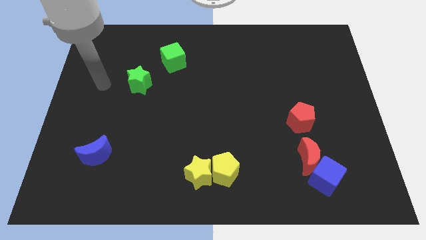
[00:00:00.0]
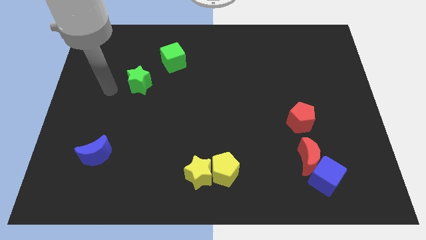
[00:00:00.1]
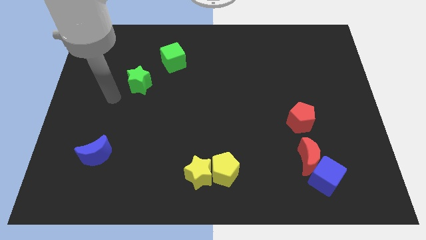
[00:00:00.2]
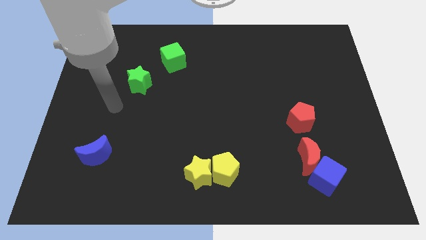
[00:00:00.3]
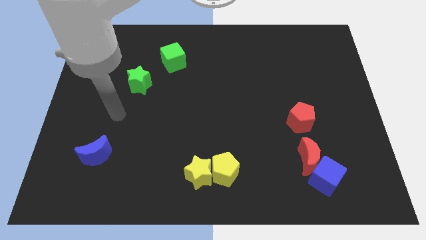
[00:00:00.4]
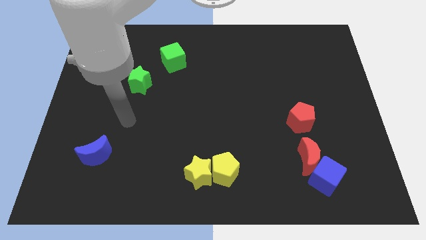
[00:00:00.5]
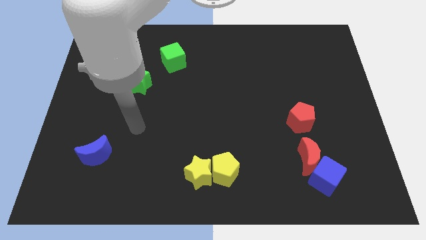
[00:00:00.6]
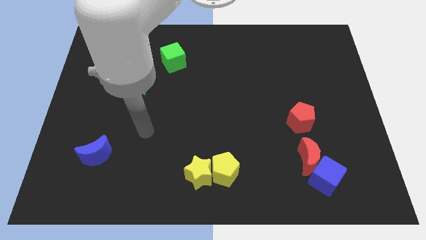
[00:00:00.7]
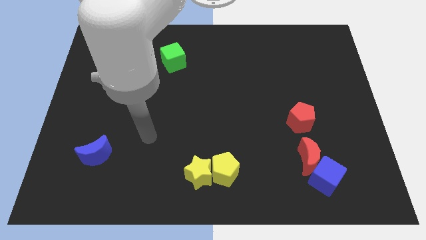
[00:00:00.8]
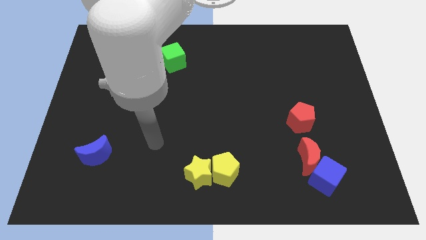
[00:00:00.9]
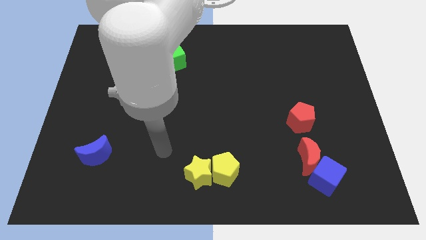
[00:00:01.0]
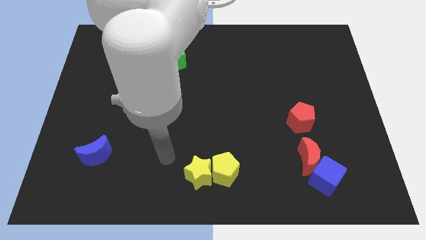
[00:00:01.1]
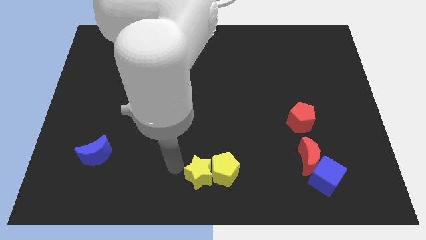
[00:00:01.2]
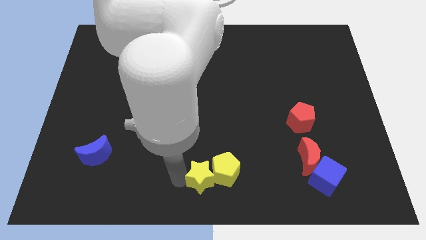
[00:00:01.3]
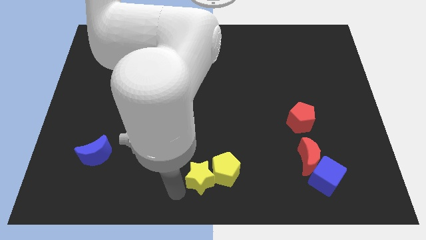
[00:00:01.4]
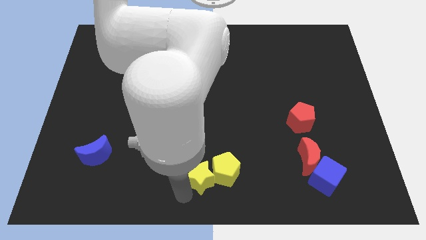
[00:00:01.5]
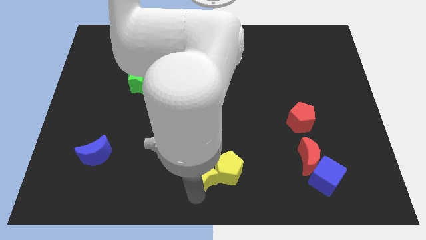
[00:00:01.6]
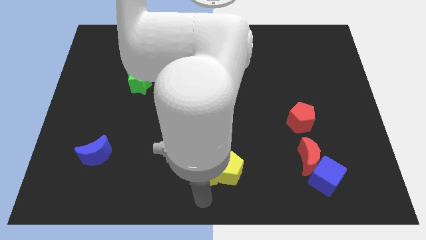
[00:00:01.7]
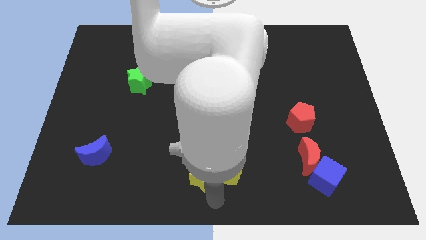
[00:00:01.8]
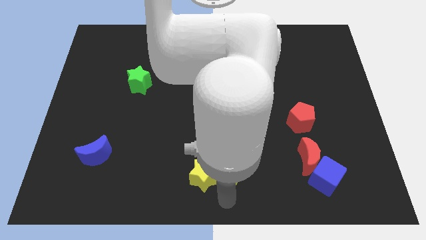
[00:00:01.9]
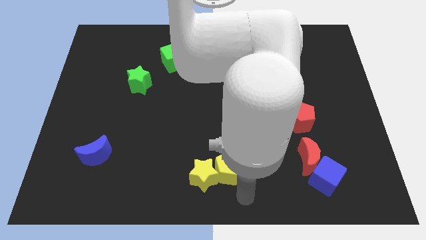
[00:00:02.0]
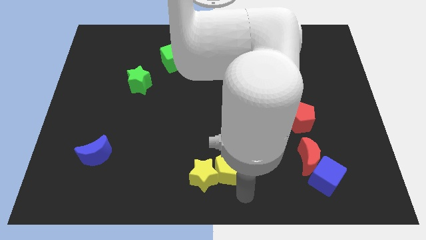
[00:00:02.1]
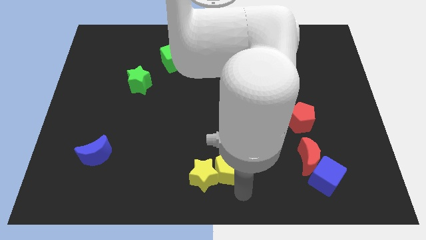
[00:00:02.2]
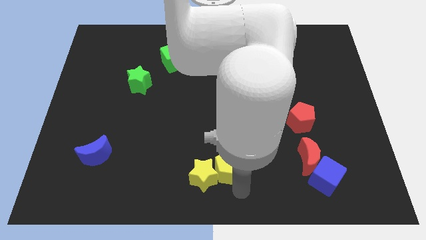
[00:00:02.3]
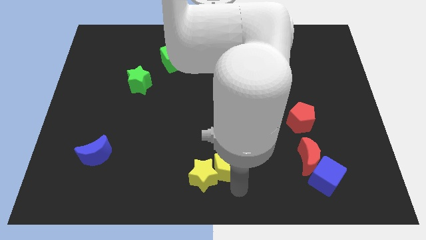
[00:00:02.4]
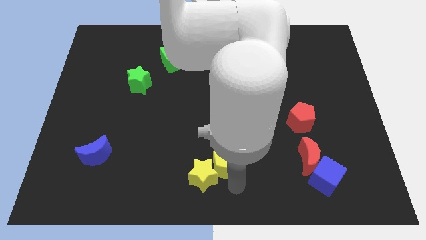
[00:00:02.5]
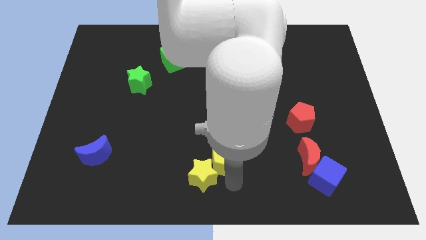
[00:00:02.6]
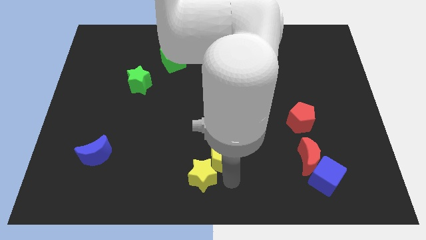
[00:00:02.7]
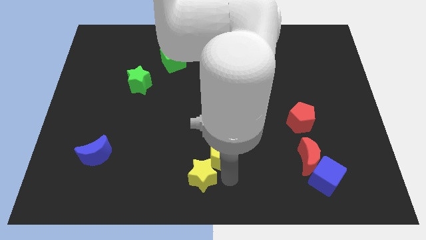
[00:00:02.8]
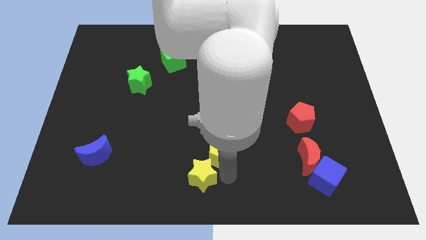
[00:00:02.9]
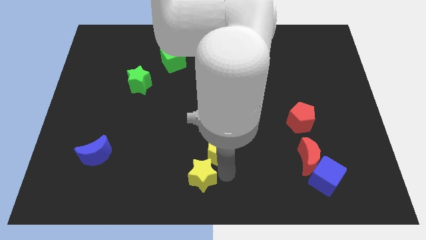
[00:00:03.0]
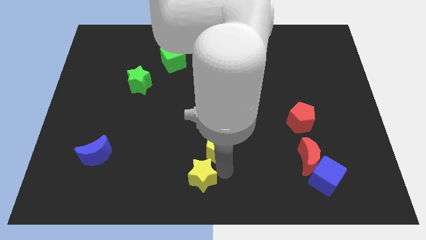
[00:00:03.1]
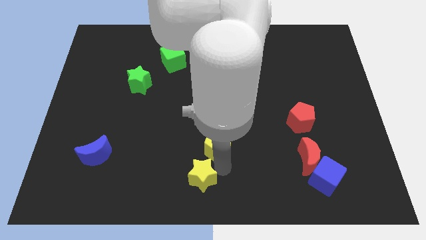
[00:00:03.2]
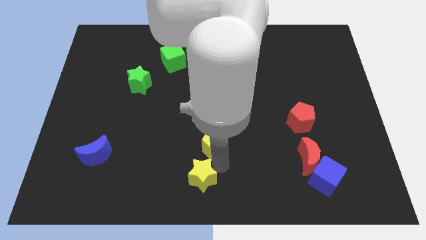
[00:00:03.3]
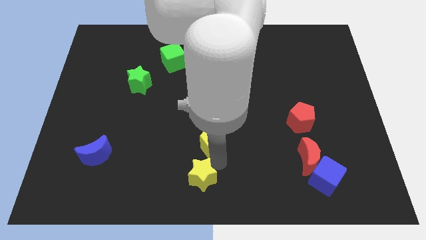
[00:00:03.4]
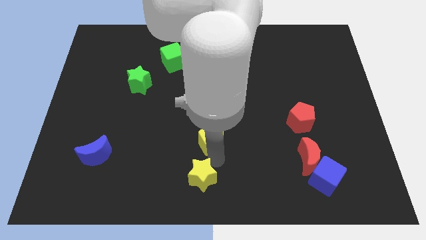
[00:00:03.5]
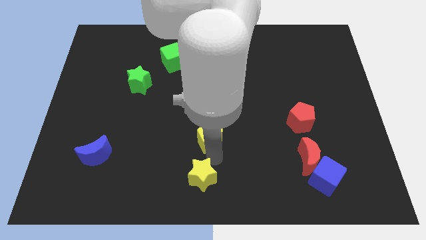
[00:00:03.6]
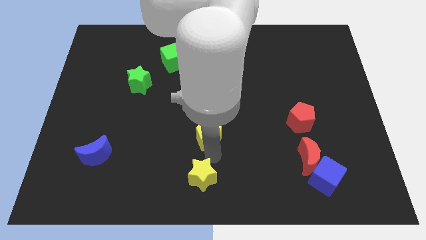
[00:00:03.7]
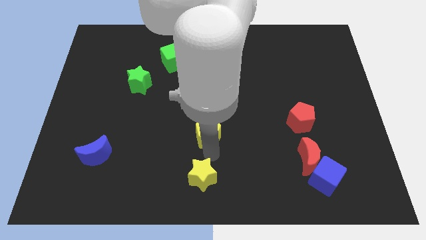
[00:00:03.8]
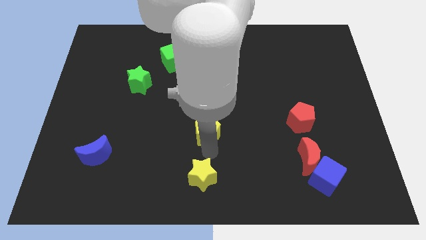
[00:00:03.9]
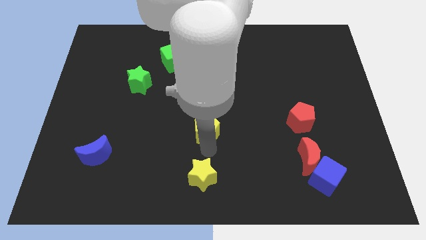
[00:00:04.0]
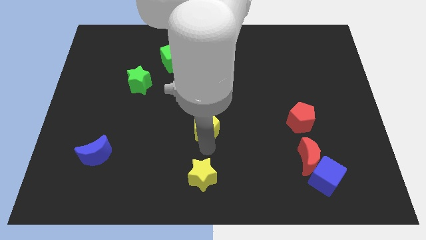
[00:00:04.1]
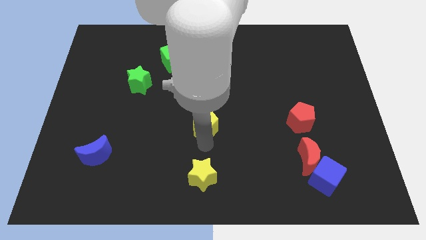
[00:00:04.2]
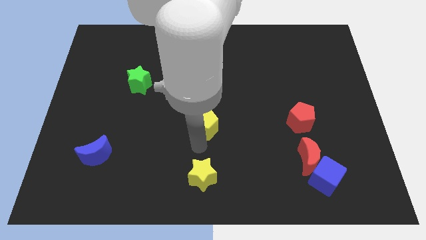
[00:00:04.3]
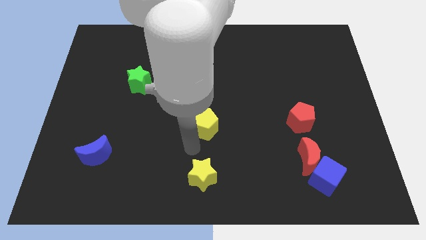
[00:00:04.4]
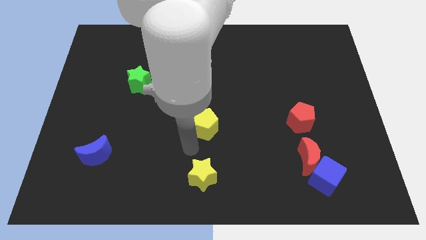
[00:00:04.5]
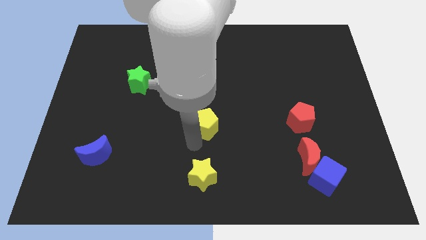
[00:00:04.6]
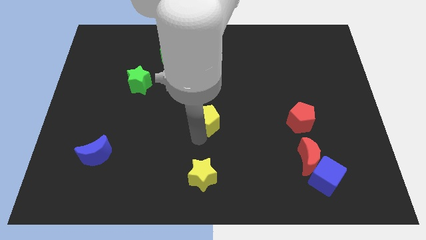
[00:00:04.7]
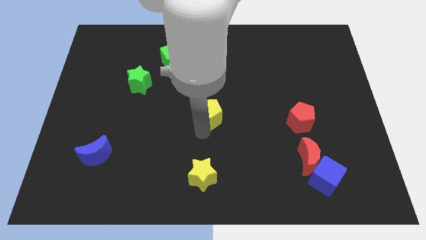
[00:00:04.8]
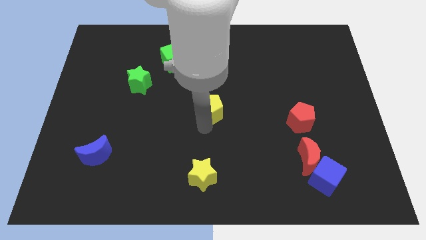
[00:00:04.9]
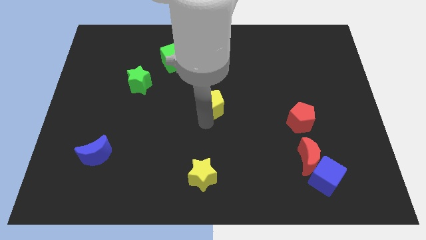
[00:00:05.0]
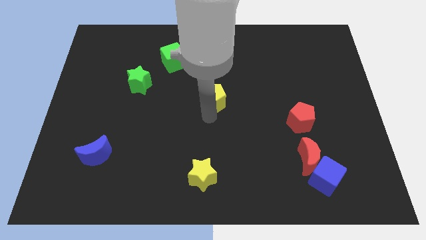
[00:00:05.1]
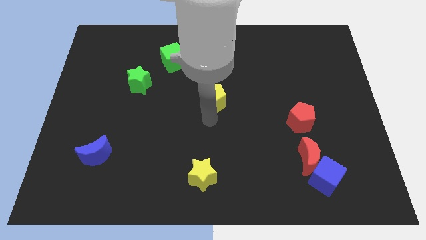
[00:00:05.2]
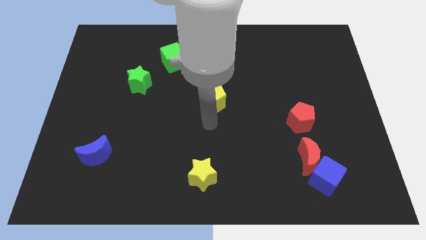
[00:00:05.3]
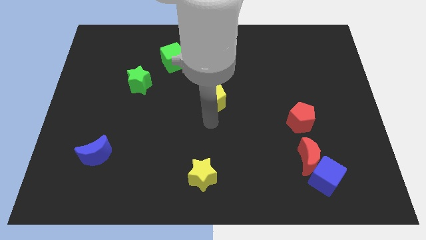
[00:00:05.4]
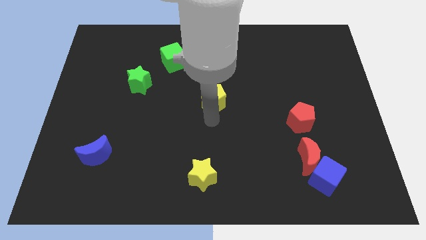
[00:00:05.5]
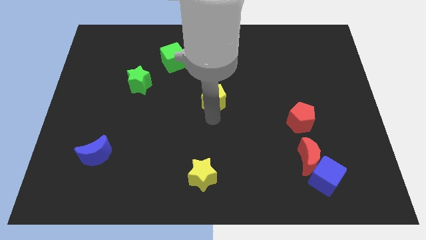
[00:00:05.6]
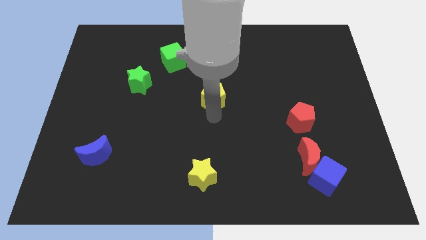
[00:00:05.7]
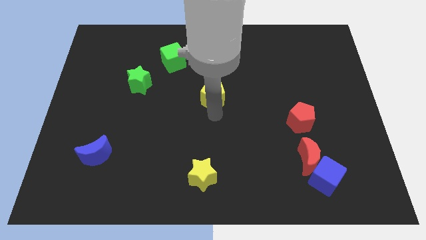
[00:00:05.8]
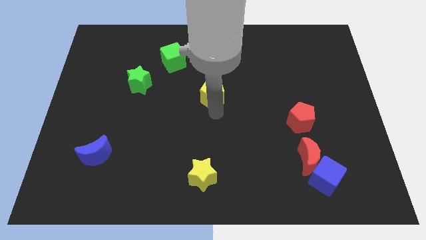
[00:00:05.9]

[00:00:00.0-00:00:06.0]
slide the yellow pentagon upwards

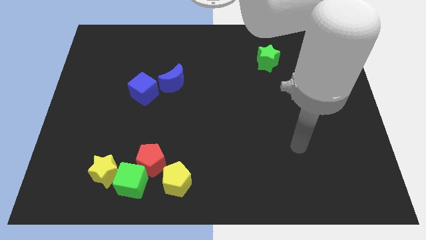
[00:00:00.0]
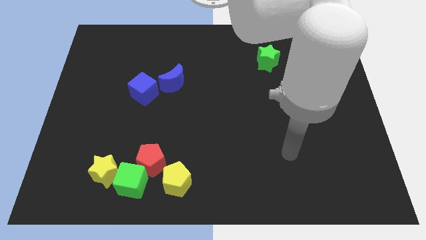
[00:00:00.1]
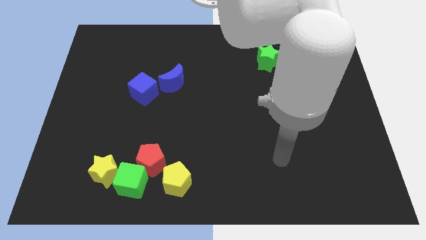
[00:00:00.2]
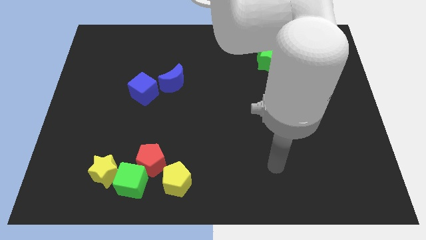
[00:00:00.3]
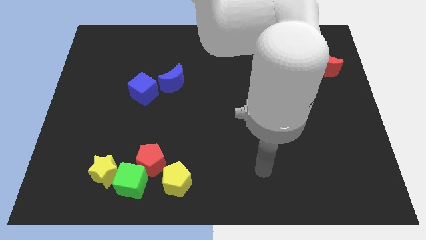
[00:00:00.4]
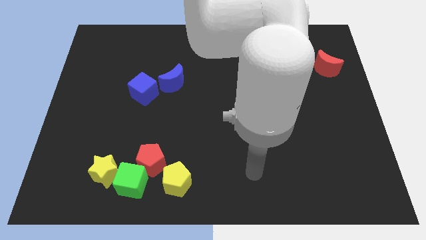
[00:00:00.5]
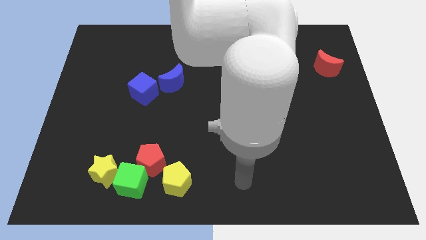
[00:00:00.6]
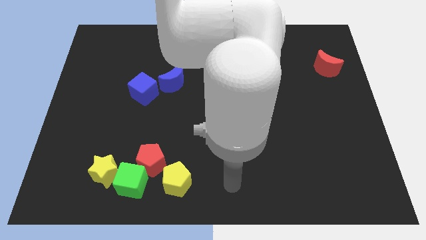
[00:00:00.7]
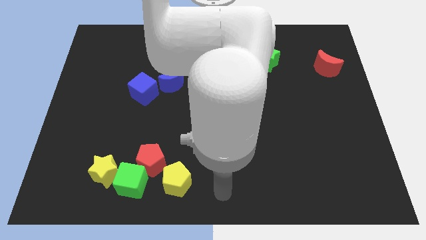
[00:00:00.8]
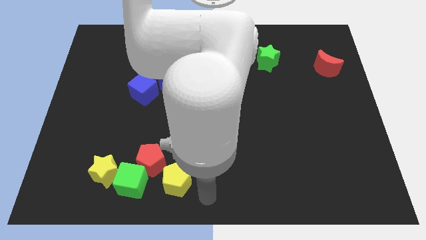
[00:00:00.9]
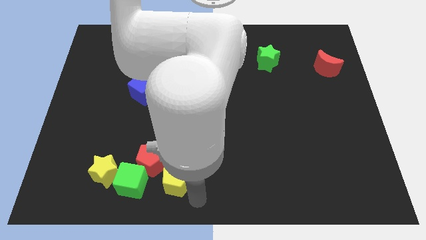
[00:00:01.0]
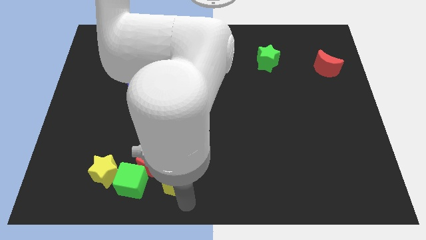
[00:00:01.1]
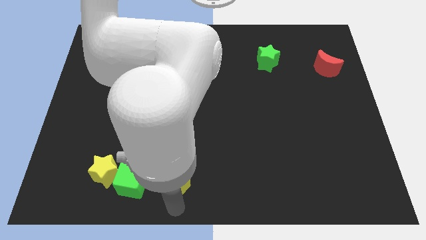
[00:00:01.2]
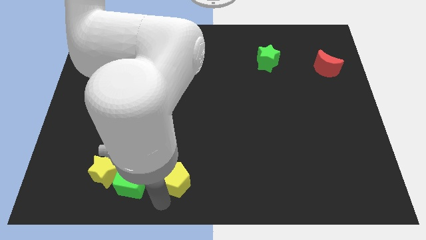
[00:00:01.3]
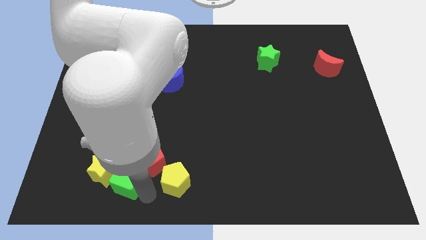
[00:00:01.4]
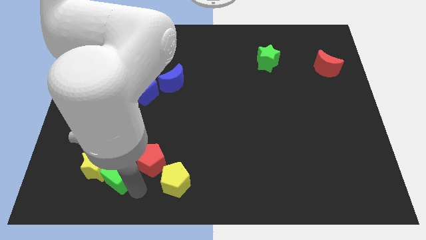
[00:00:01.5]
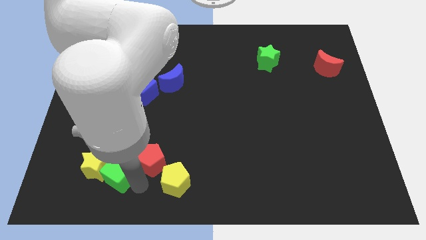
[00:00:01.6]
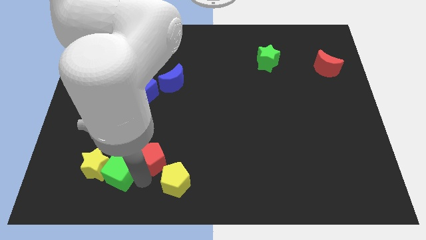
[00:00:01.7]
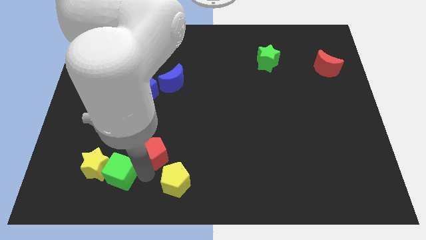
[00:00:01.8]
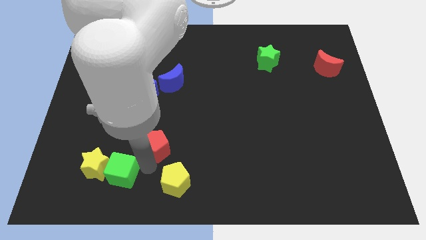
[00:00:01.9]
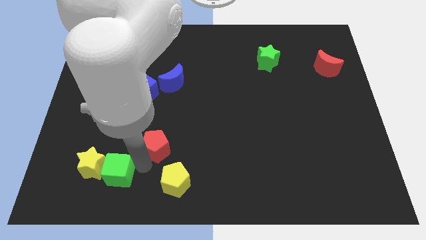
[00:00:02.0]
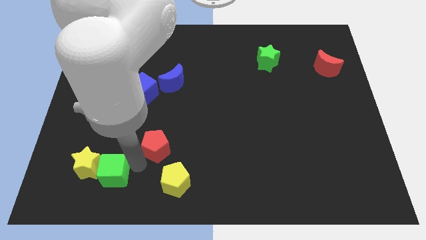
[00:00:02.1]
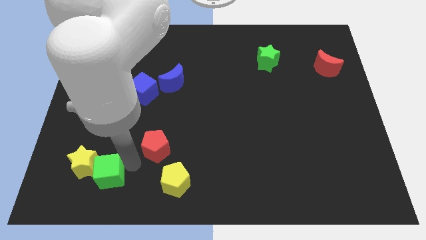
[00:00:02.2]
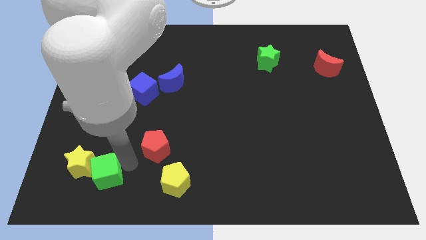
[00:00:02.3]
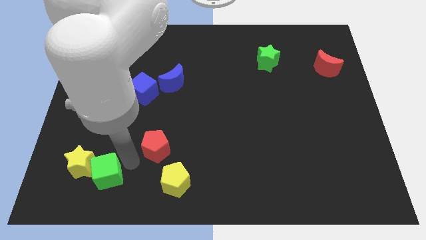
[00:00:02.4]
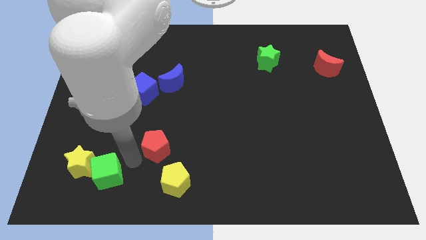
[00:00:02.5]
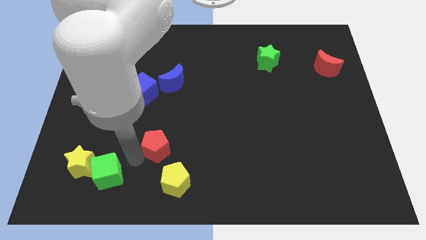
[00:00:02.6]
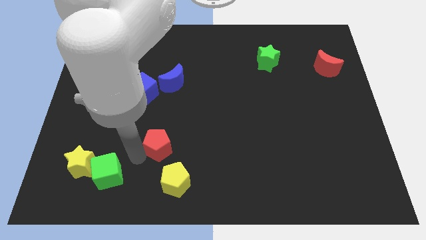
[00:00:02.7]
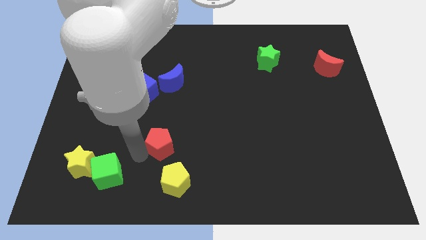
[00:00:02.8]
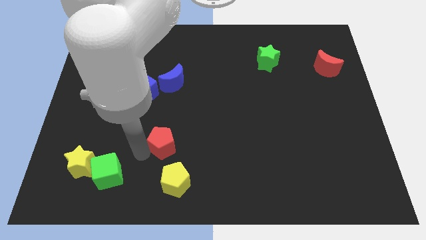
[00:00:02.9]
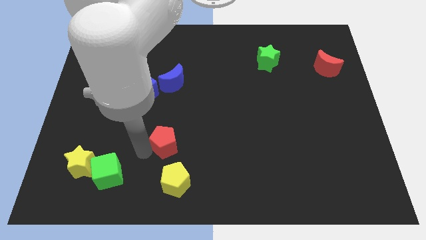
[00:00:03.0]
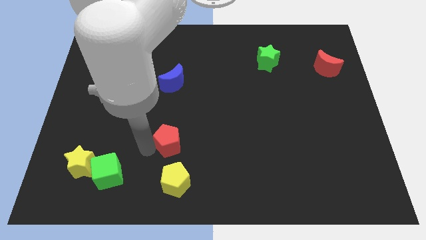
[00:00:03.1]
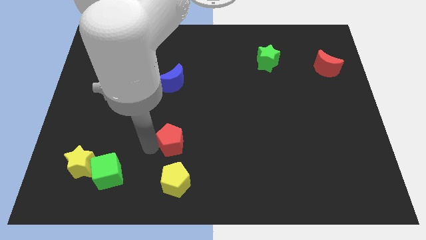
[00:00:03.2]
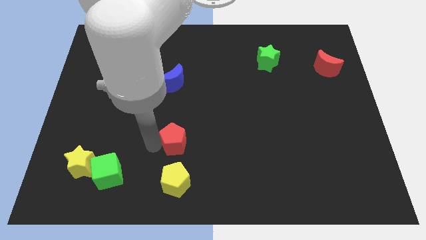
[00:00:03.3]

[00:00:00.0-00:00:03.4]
slightly move the red pentagon diagonally upwards and right
